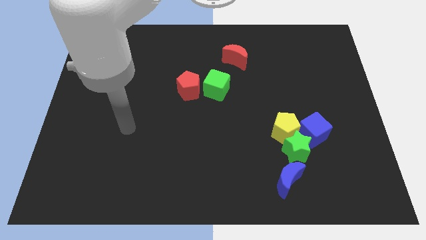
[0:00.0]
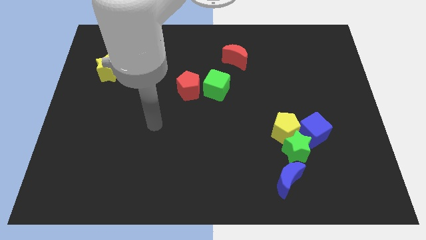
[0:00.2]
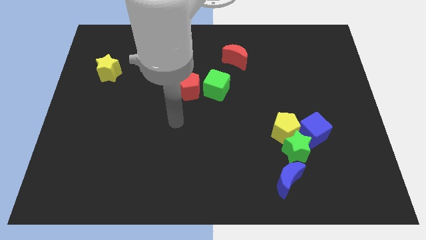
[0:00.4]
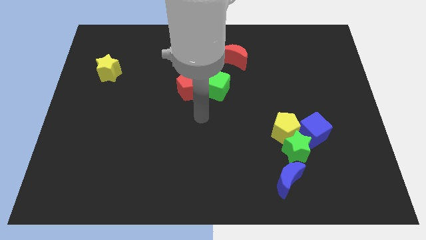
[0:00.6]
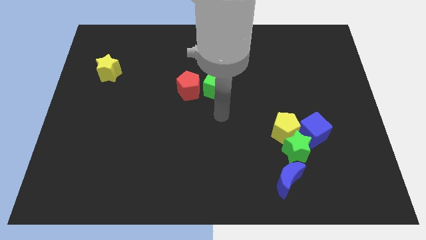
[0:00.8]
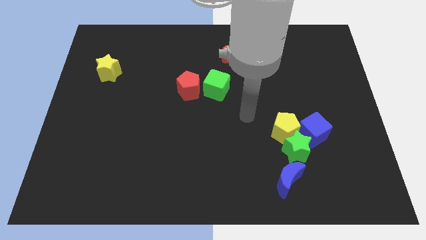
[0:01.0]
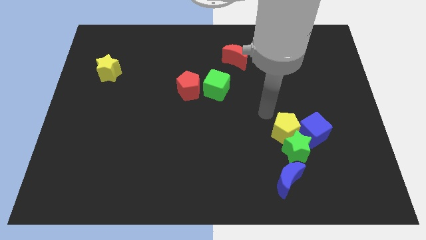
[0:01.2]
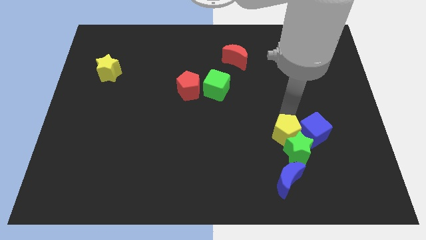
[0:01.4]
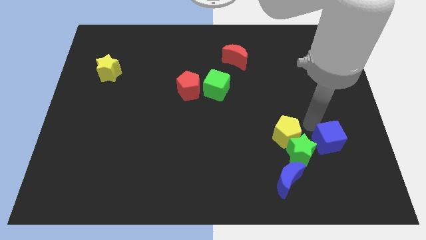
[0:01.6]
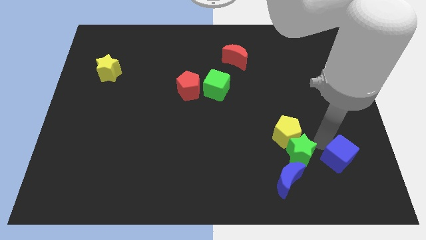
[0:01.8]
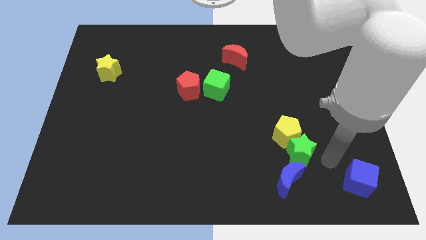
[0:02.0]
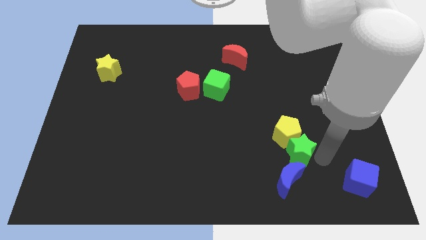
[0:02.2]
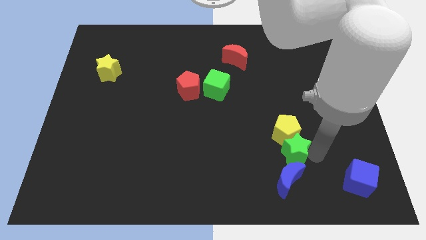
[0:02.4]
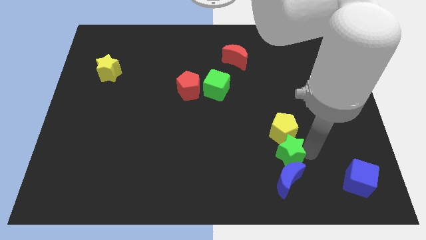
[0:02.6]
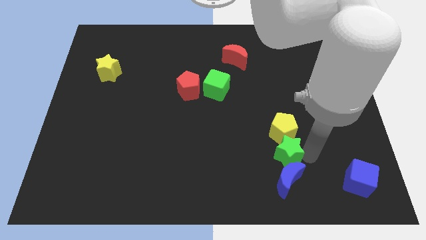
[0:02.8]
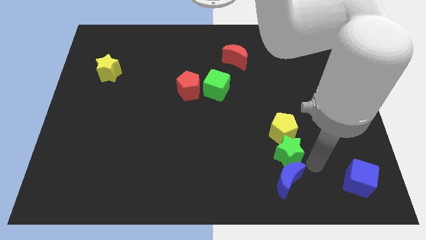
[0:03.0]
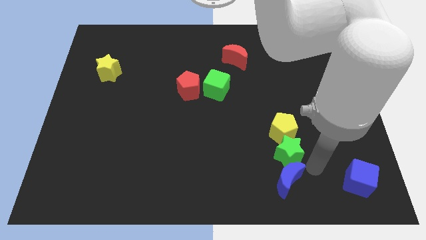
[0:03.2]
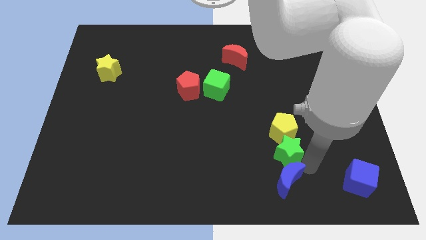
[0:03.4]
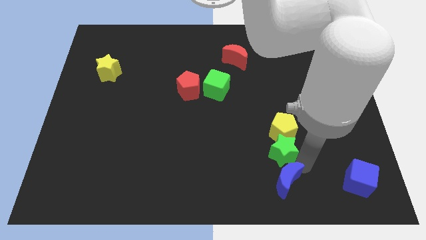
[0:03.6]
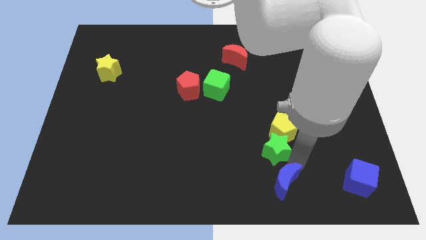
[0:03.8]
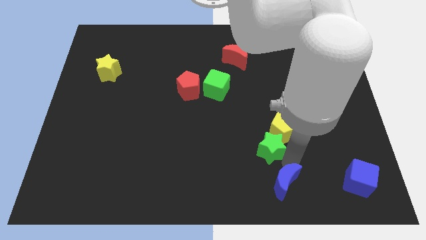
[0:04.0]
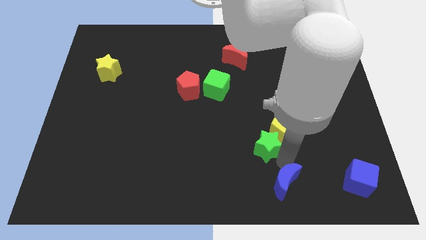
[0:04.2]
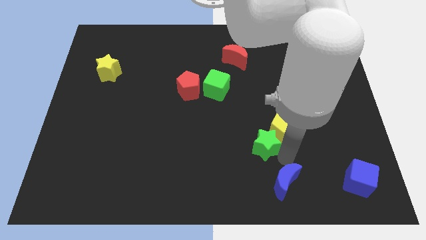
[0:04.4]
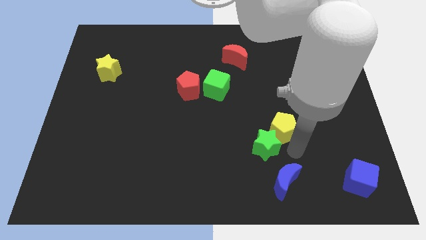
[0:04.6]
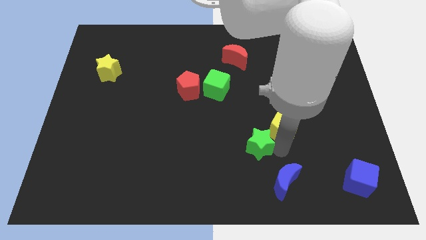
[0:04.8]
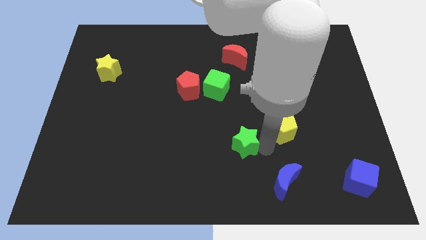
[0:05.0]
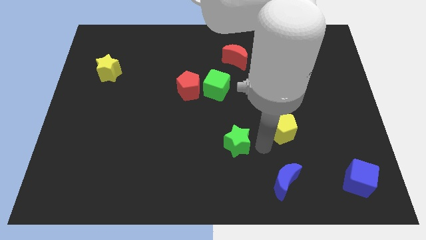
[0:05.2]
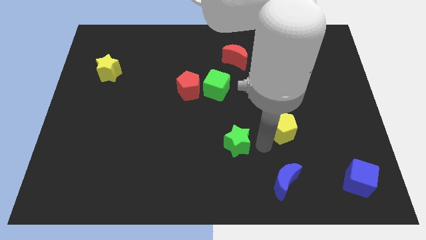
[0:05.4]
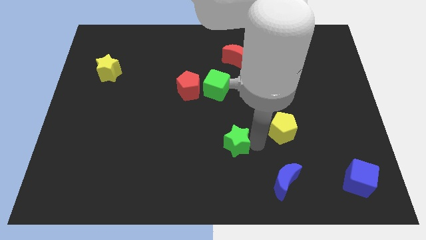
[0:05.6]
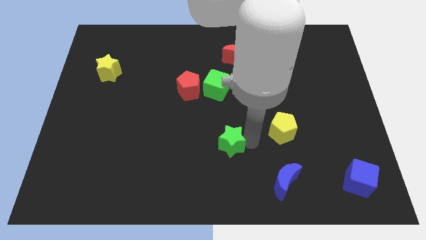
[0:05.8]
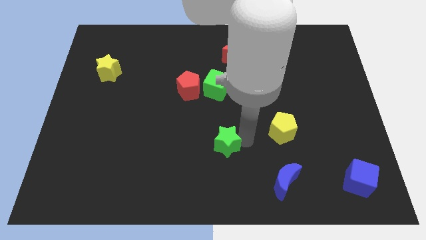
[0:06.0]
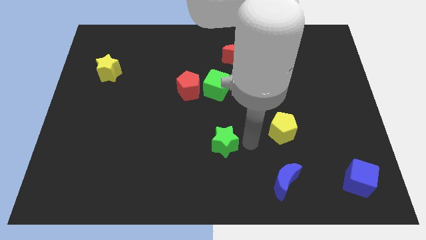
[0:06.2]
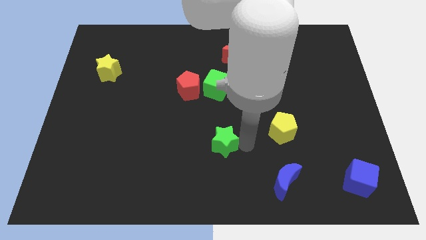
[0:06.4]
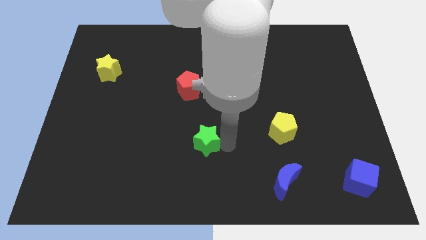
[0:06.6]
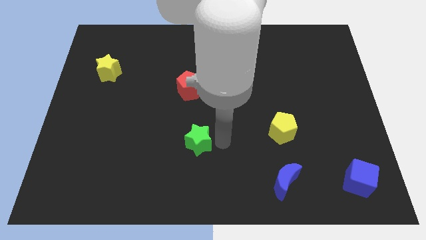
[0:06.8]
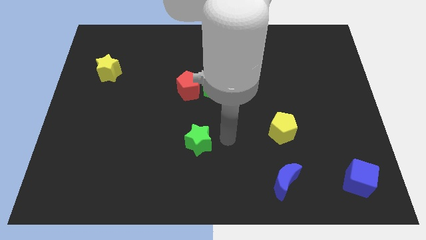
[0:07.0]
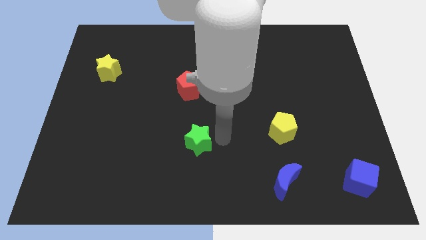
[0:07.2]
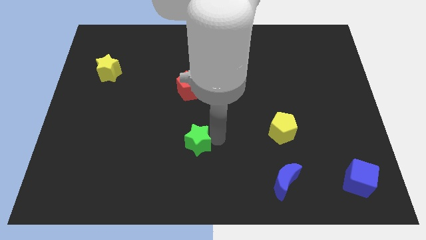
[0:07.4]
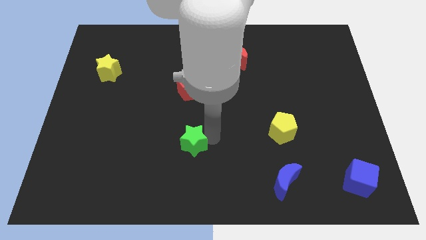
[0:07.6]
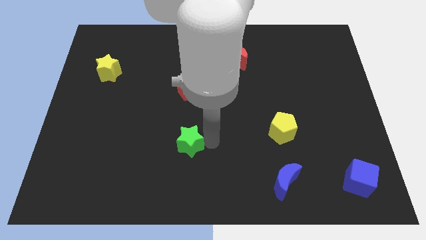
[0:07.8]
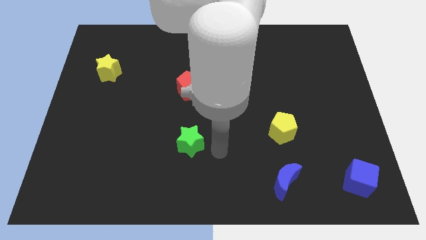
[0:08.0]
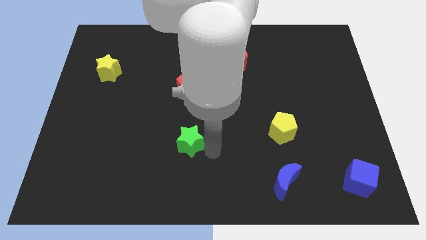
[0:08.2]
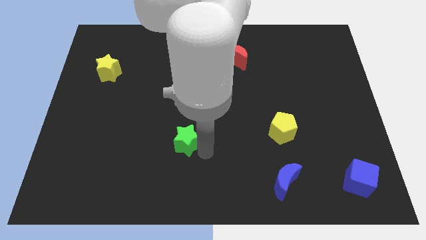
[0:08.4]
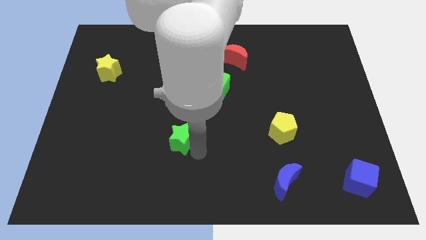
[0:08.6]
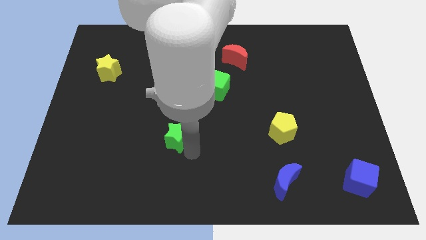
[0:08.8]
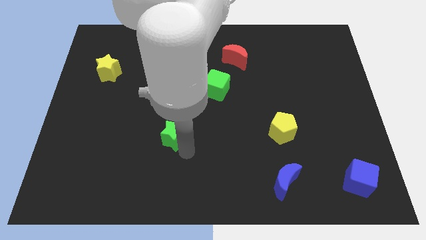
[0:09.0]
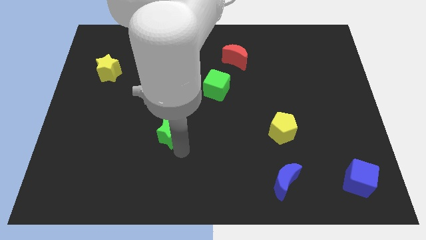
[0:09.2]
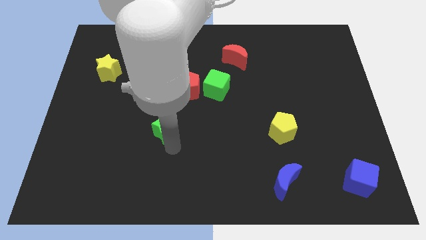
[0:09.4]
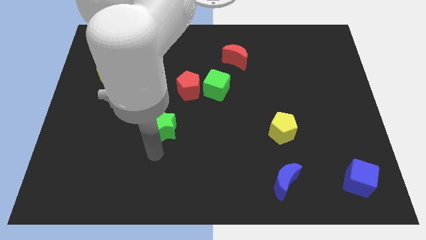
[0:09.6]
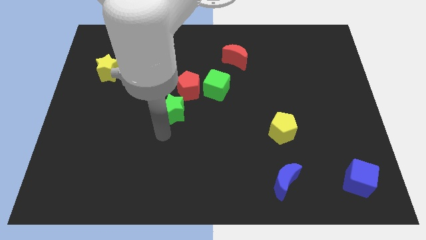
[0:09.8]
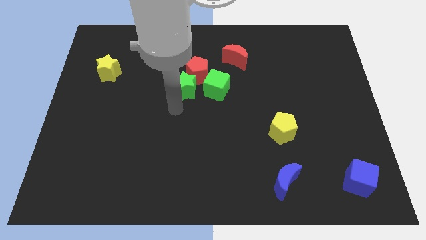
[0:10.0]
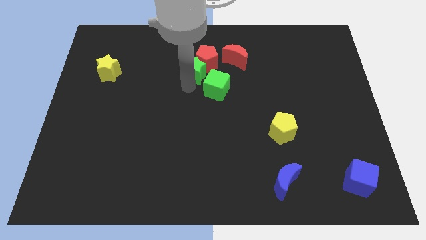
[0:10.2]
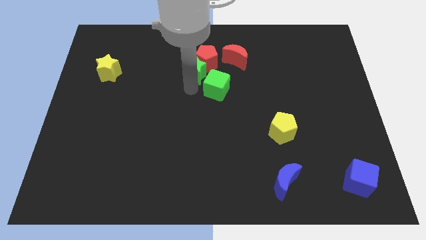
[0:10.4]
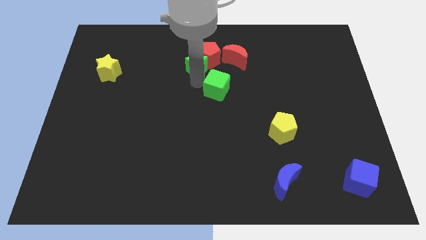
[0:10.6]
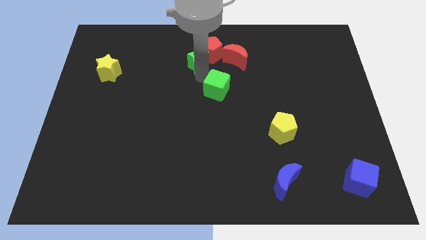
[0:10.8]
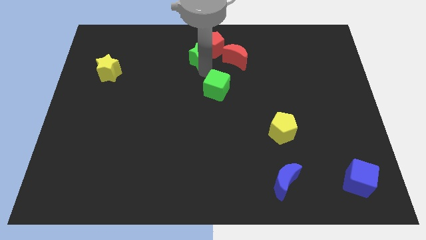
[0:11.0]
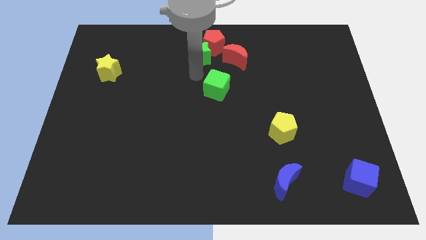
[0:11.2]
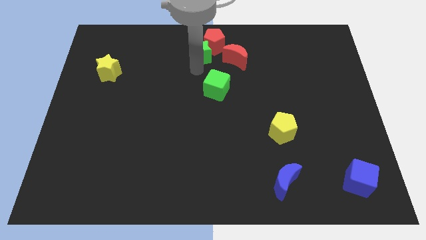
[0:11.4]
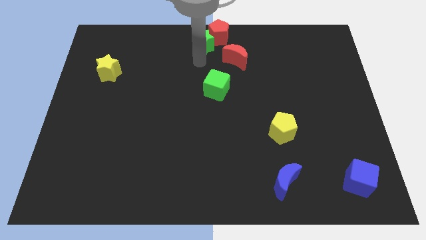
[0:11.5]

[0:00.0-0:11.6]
move the green star to the top side

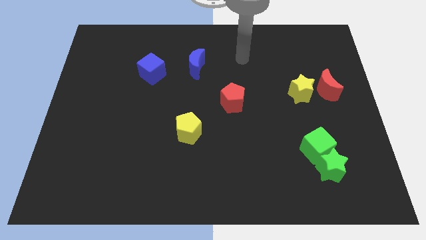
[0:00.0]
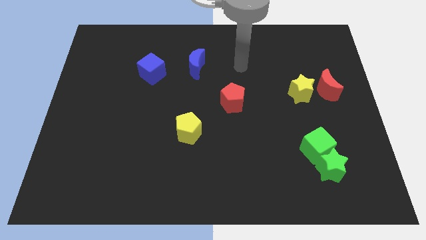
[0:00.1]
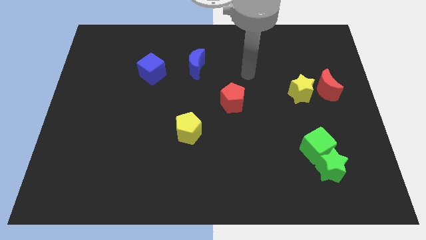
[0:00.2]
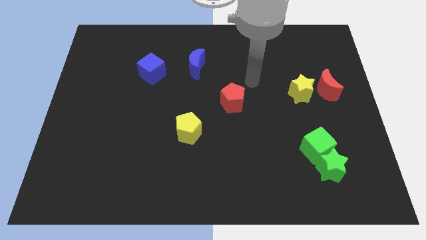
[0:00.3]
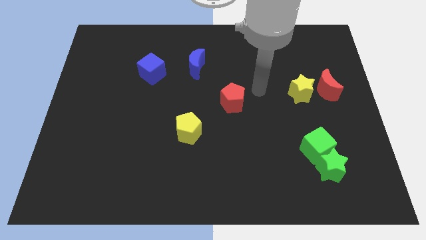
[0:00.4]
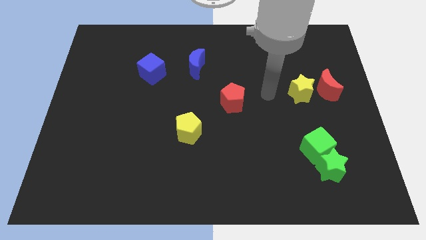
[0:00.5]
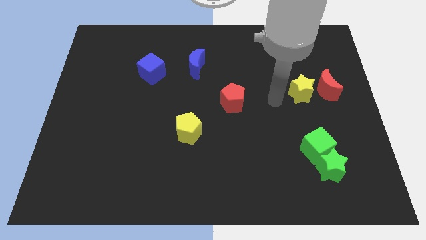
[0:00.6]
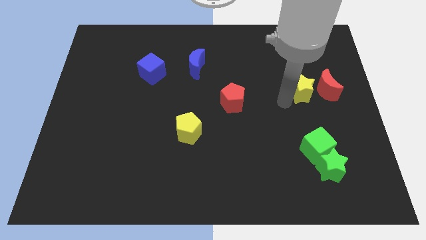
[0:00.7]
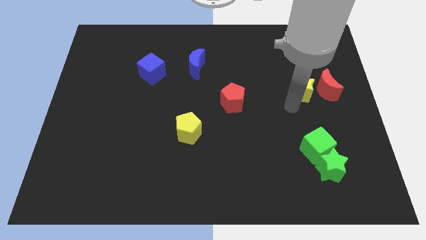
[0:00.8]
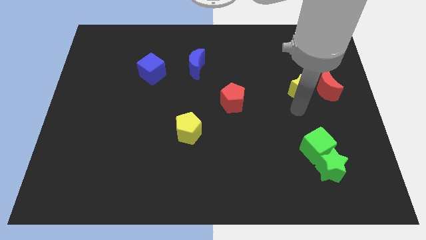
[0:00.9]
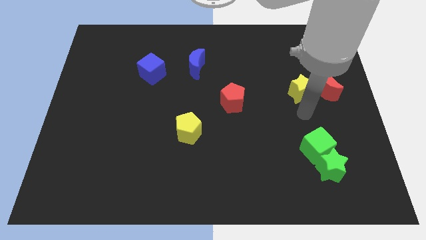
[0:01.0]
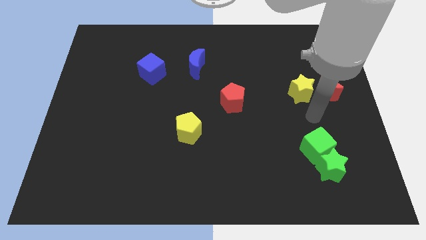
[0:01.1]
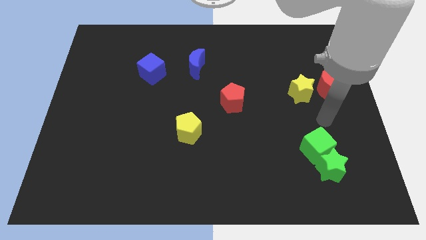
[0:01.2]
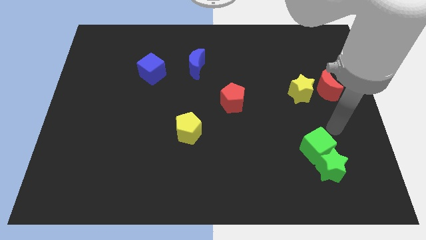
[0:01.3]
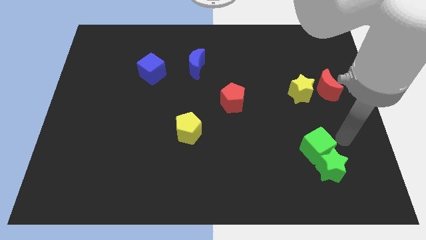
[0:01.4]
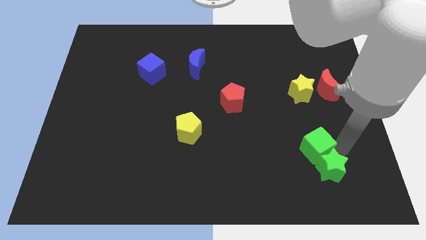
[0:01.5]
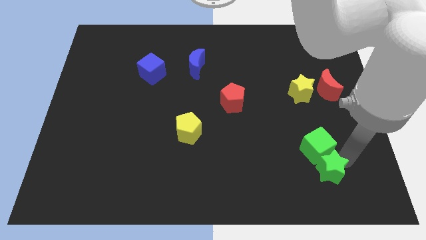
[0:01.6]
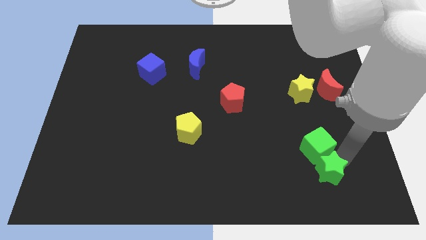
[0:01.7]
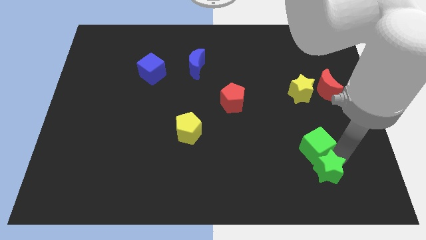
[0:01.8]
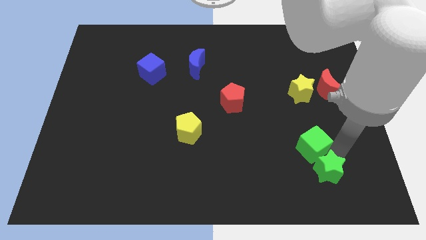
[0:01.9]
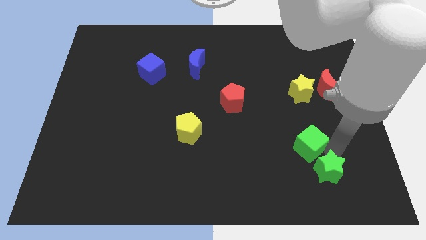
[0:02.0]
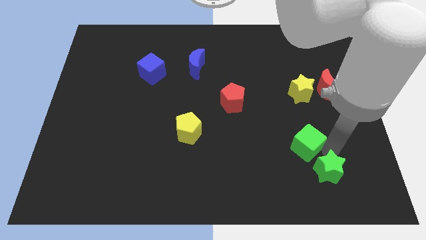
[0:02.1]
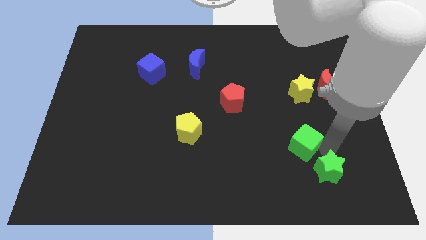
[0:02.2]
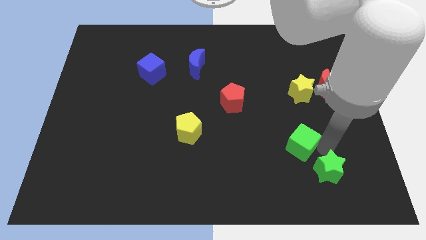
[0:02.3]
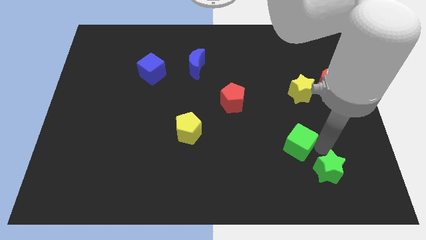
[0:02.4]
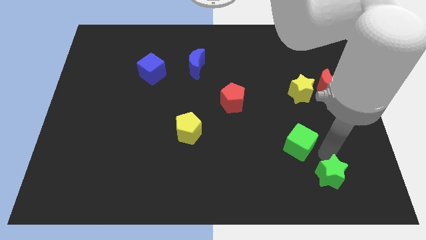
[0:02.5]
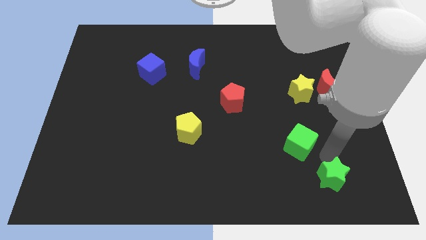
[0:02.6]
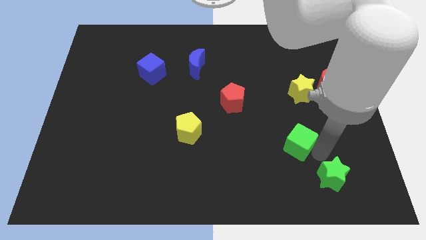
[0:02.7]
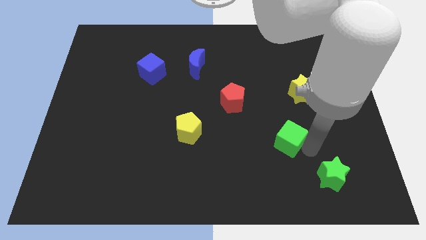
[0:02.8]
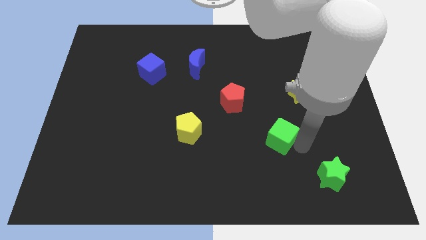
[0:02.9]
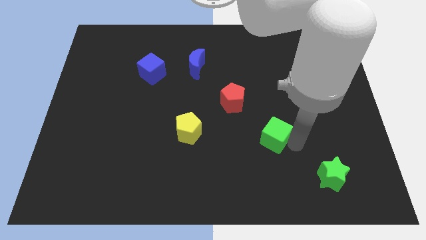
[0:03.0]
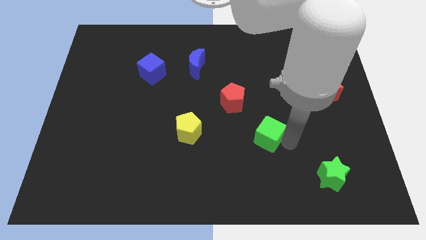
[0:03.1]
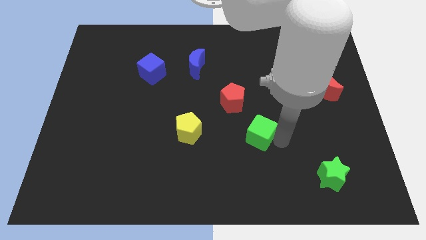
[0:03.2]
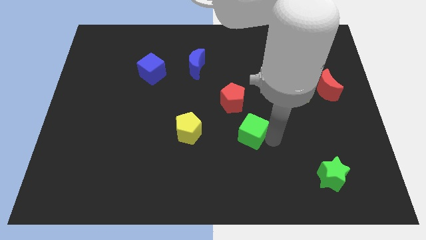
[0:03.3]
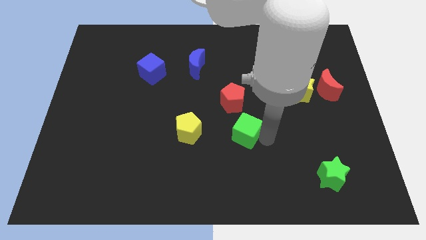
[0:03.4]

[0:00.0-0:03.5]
push the green cube to the center
